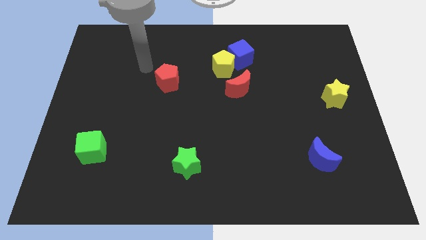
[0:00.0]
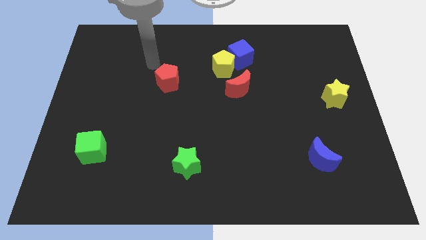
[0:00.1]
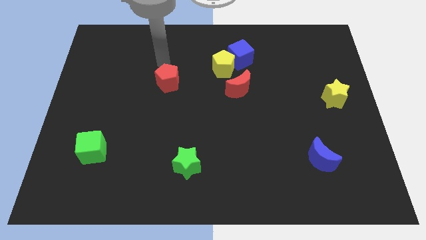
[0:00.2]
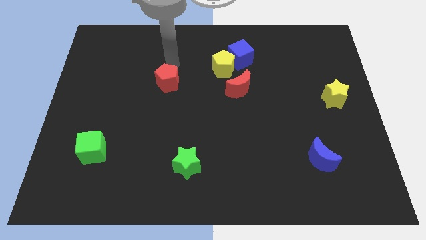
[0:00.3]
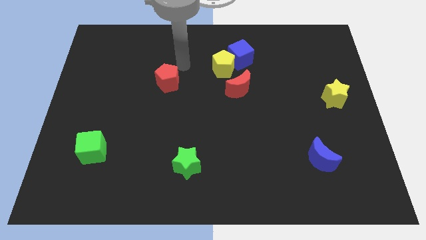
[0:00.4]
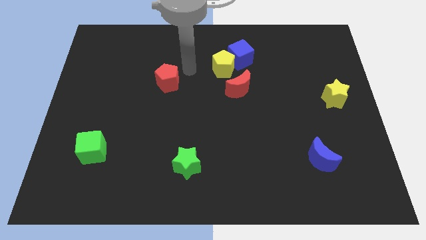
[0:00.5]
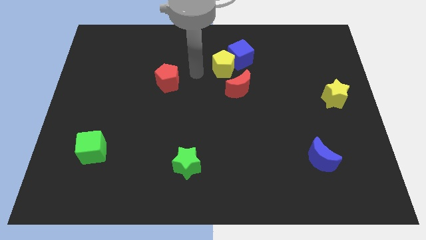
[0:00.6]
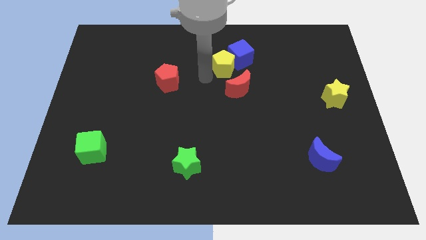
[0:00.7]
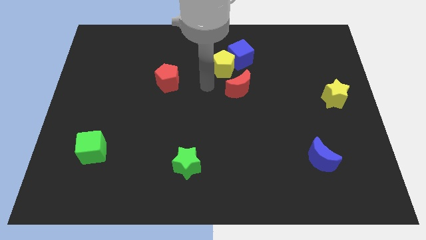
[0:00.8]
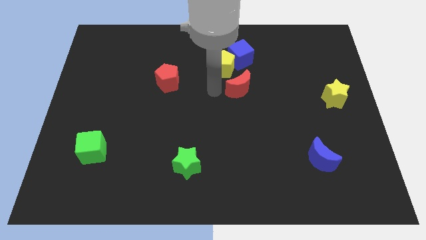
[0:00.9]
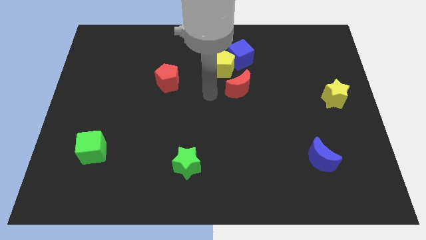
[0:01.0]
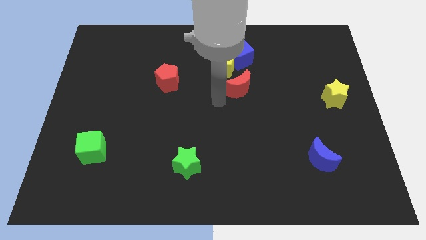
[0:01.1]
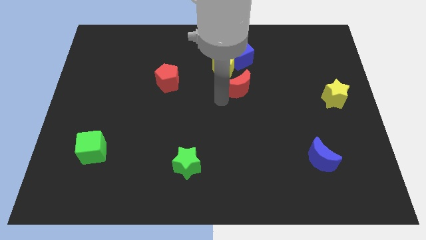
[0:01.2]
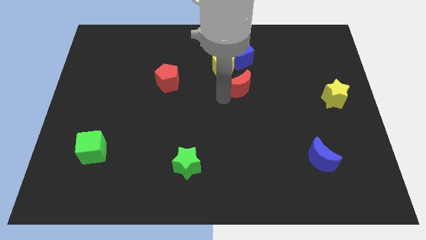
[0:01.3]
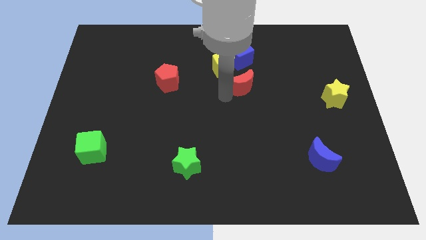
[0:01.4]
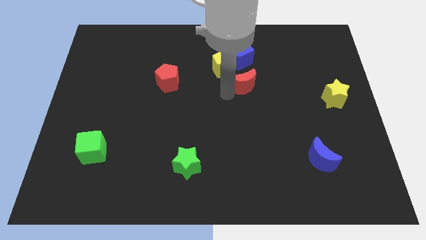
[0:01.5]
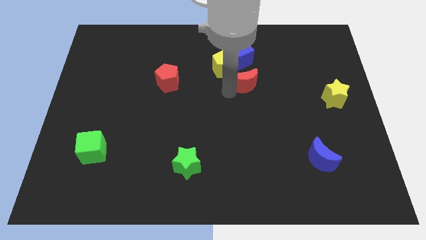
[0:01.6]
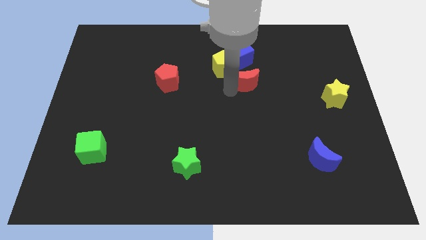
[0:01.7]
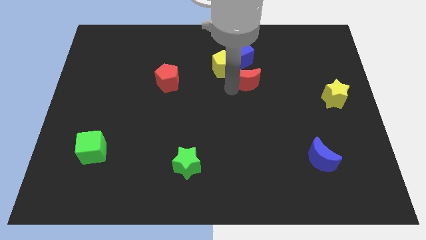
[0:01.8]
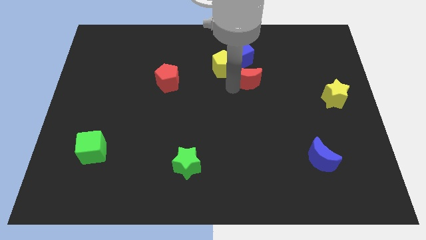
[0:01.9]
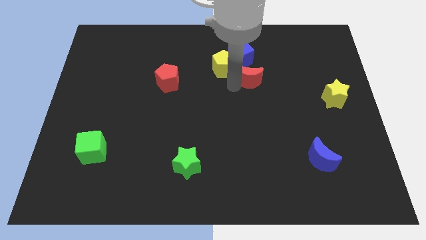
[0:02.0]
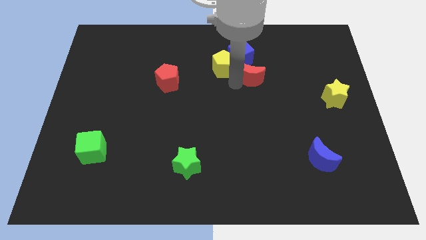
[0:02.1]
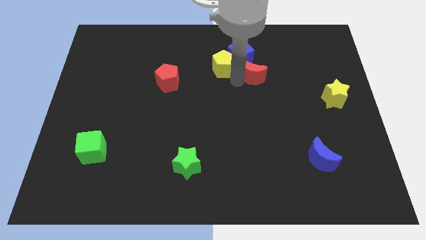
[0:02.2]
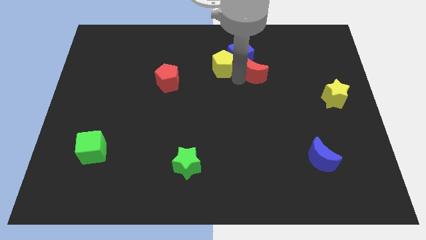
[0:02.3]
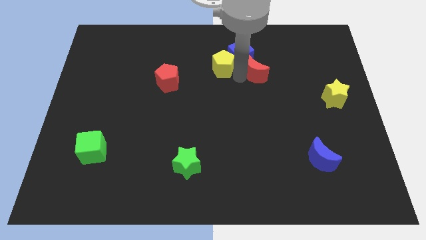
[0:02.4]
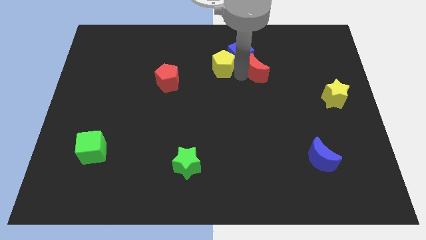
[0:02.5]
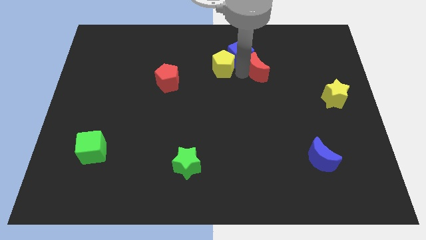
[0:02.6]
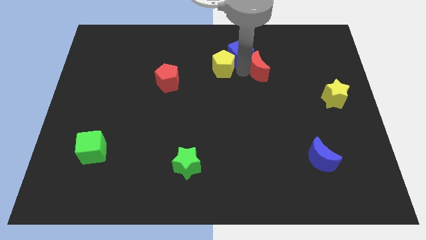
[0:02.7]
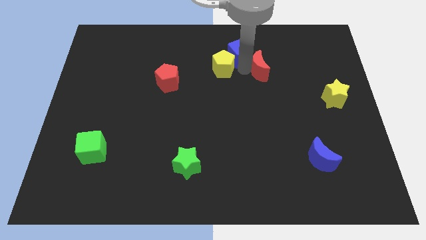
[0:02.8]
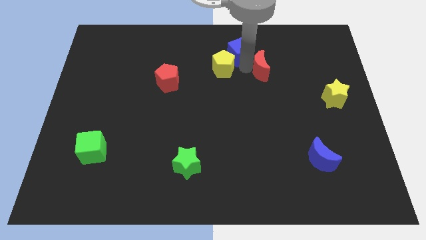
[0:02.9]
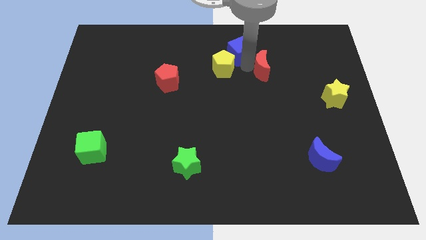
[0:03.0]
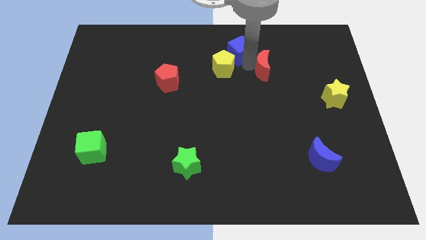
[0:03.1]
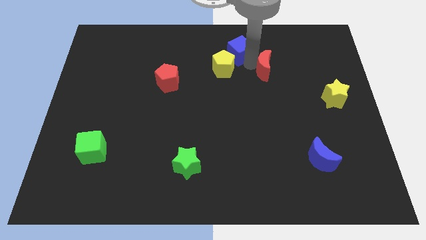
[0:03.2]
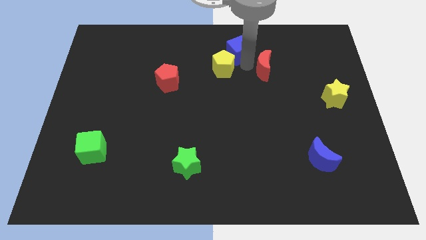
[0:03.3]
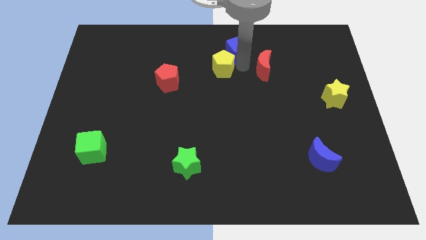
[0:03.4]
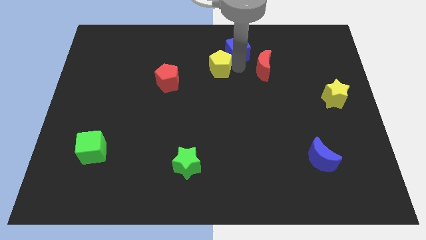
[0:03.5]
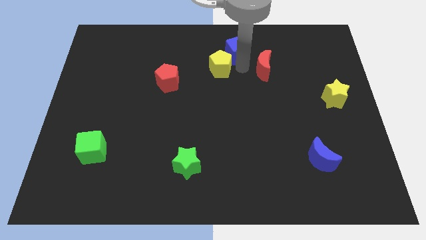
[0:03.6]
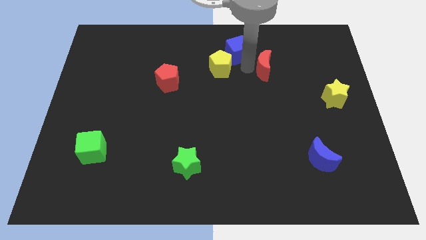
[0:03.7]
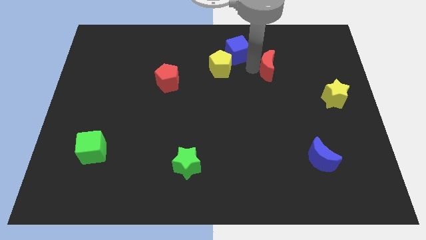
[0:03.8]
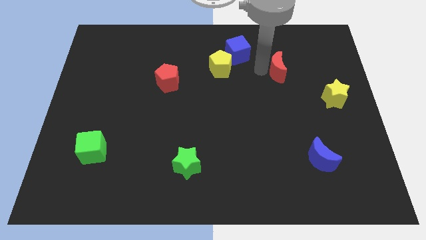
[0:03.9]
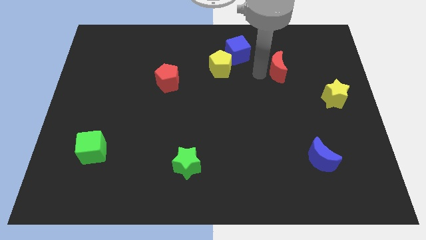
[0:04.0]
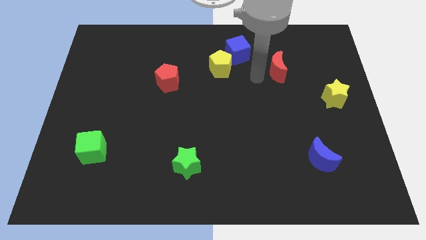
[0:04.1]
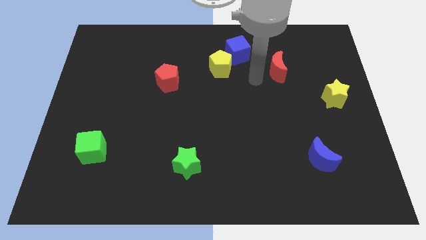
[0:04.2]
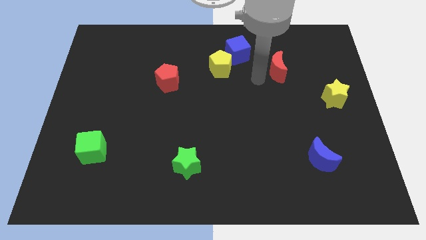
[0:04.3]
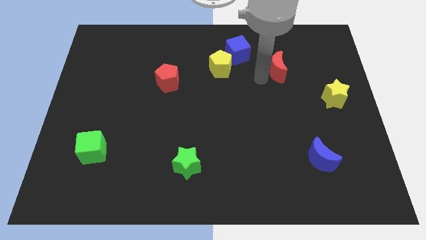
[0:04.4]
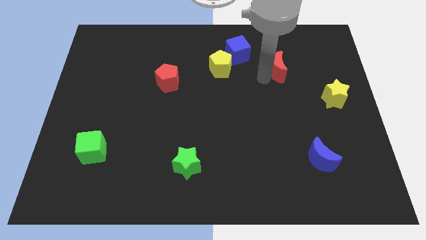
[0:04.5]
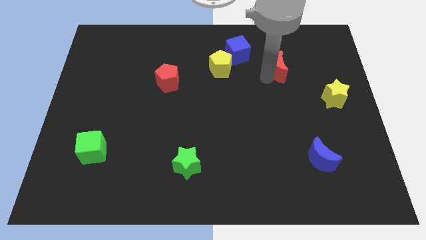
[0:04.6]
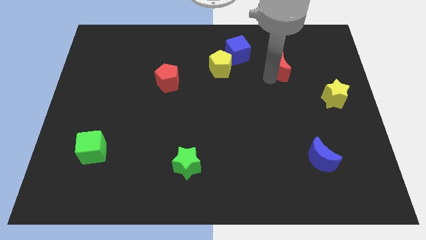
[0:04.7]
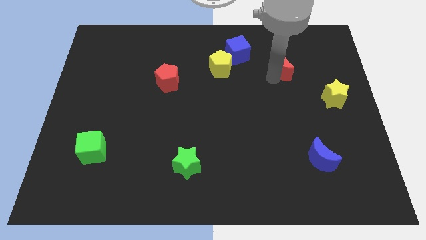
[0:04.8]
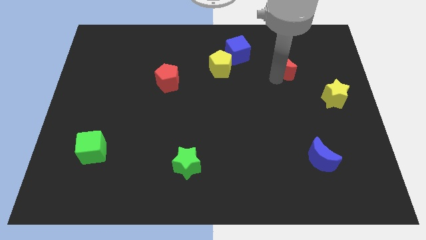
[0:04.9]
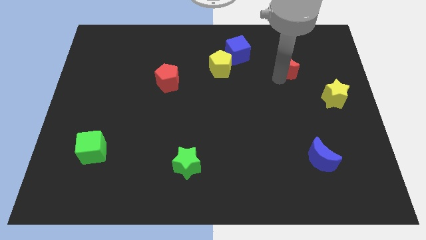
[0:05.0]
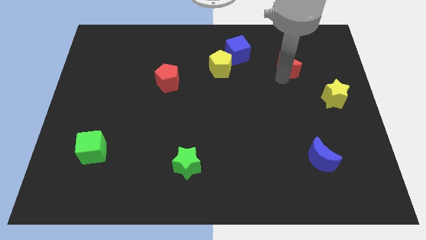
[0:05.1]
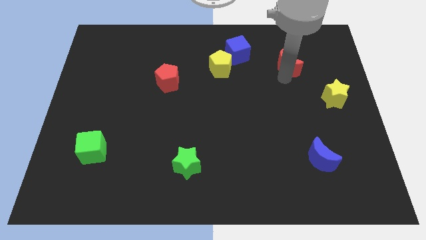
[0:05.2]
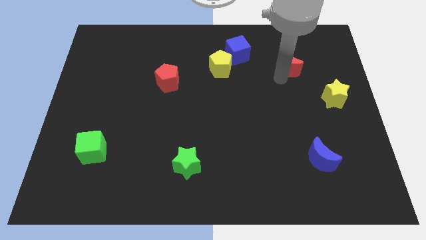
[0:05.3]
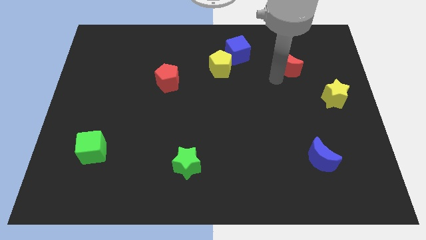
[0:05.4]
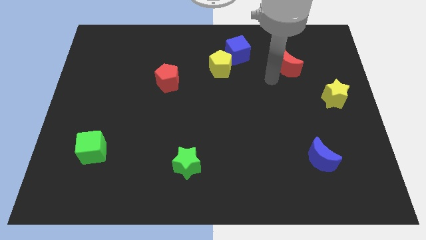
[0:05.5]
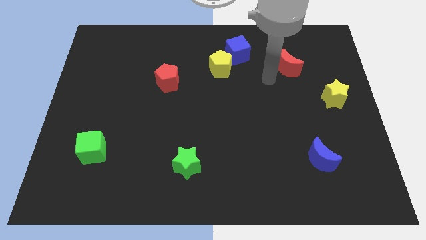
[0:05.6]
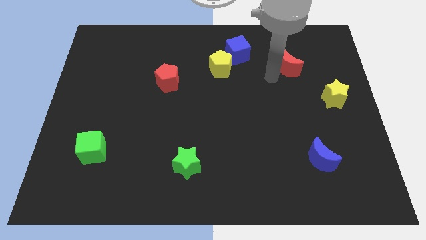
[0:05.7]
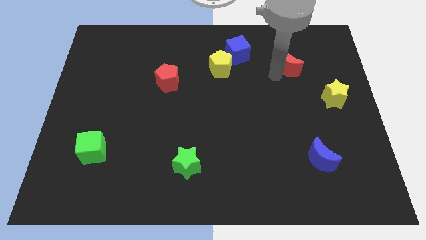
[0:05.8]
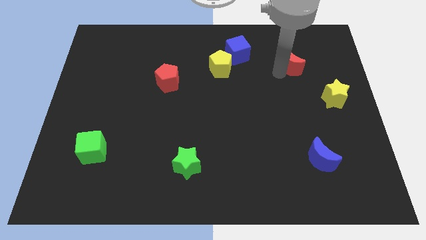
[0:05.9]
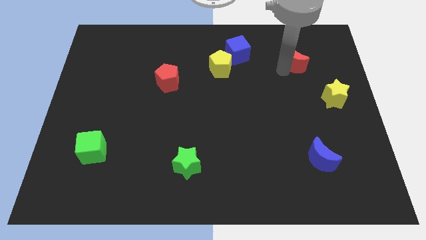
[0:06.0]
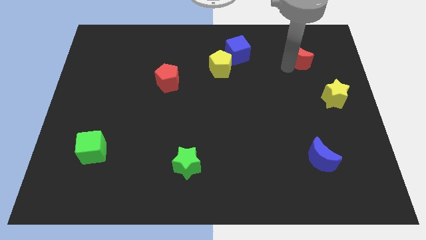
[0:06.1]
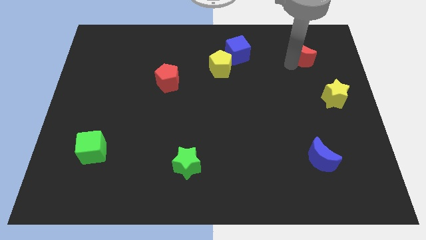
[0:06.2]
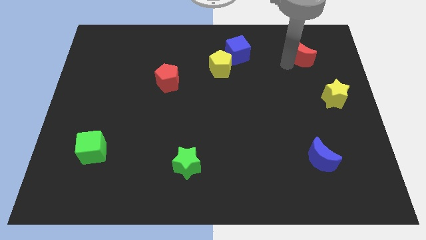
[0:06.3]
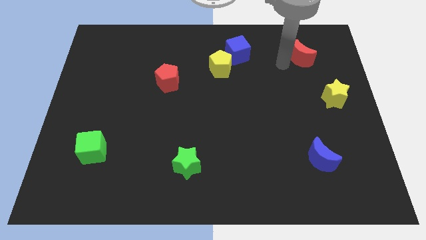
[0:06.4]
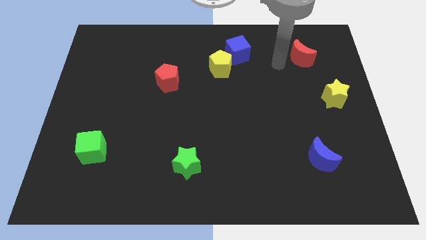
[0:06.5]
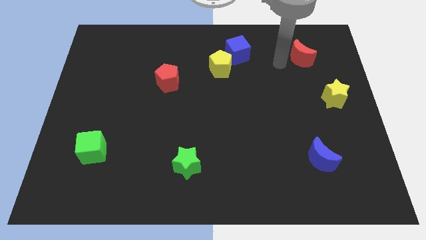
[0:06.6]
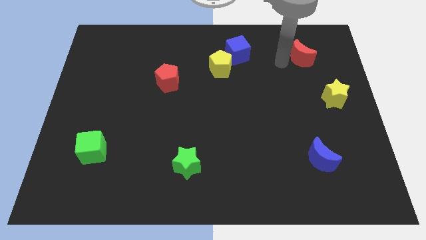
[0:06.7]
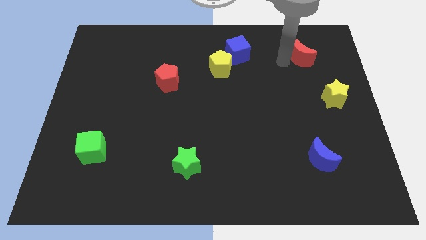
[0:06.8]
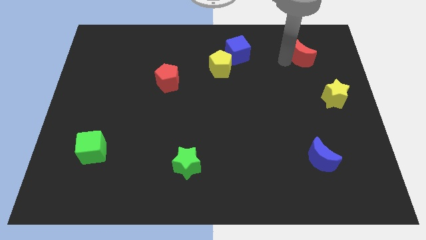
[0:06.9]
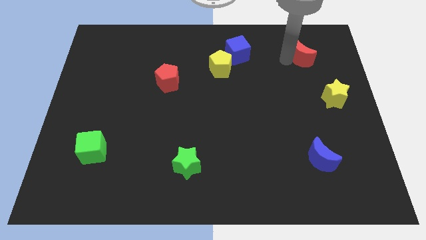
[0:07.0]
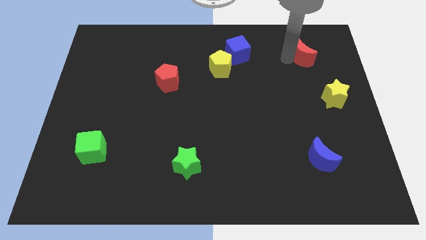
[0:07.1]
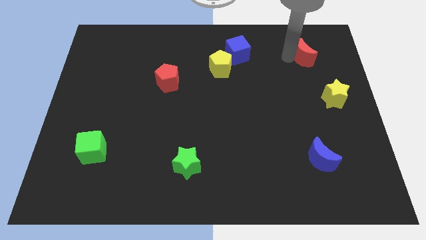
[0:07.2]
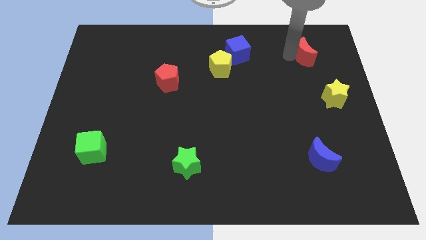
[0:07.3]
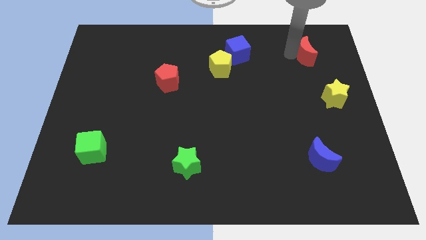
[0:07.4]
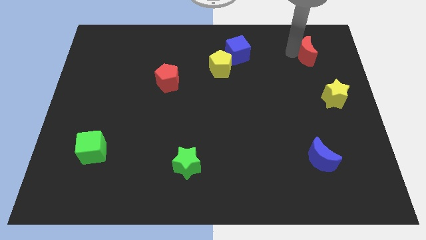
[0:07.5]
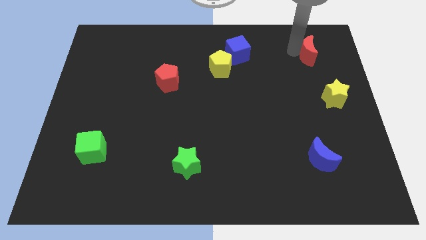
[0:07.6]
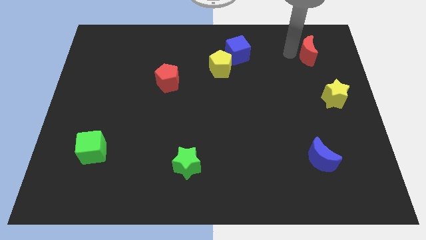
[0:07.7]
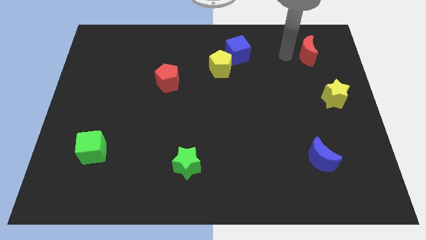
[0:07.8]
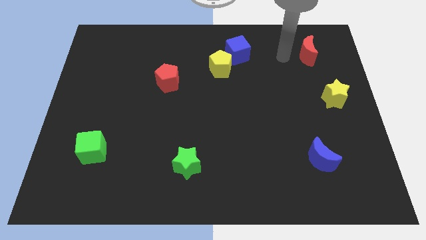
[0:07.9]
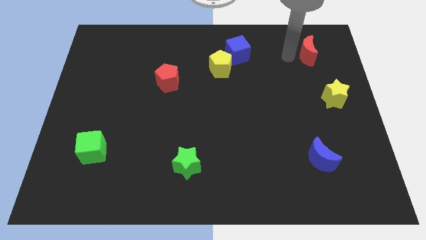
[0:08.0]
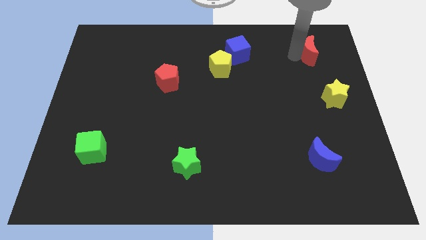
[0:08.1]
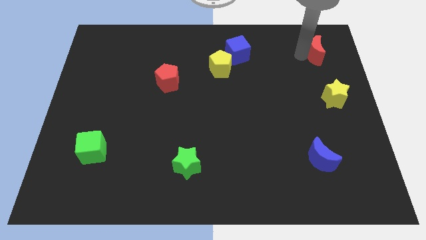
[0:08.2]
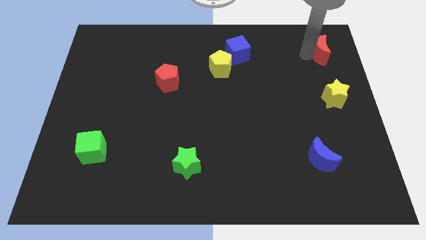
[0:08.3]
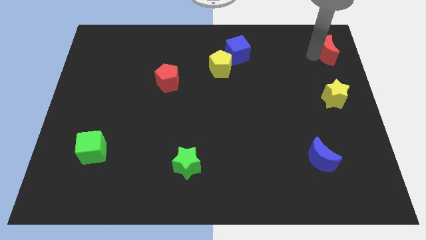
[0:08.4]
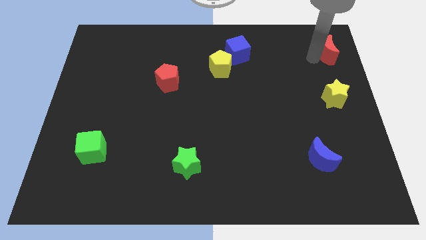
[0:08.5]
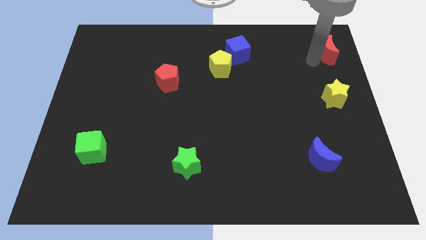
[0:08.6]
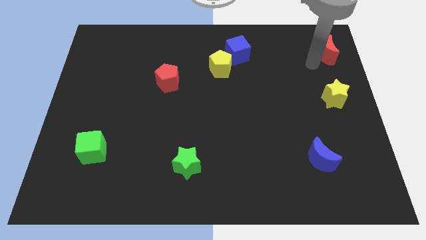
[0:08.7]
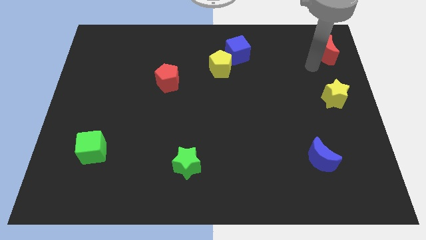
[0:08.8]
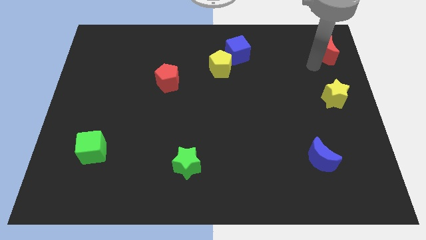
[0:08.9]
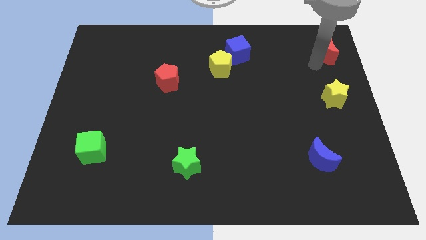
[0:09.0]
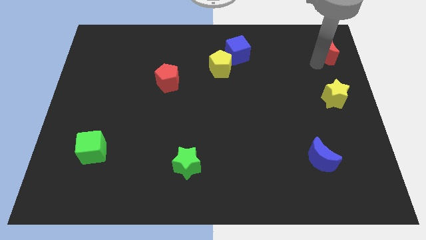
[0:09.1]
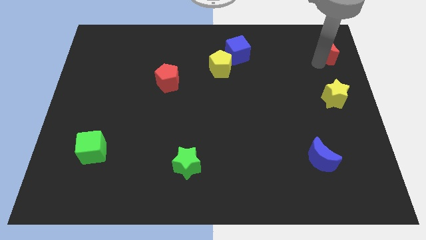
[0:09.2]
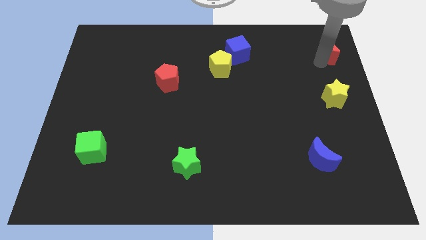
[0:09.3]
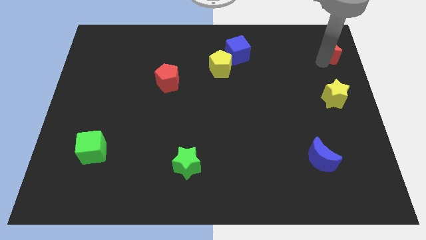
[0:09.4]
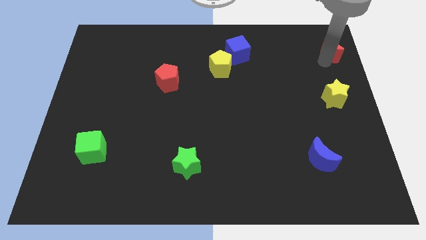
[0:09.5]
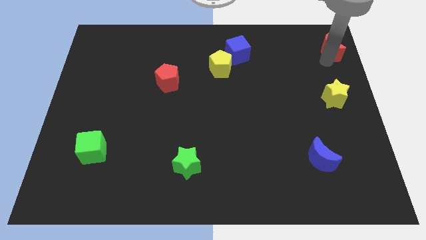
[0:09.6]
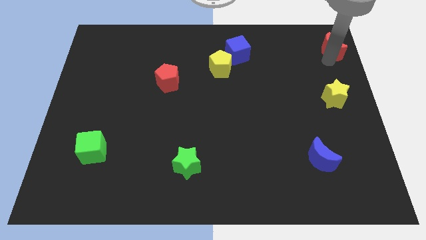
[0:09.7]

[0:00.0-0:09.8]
move the red moon to the top right corner
